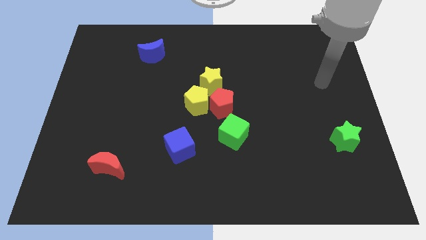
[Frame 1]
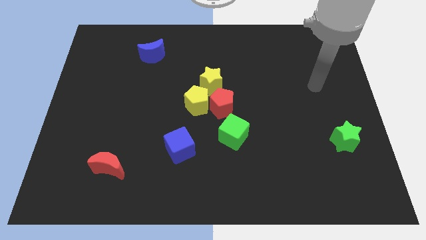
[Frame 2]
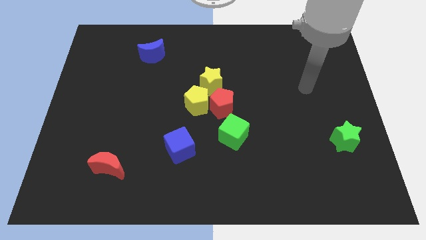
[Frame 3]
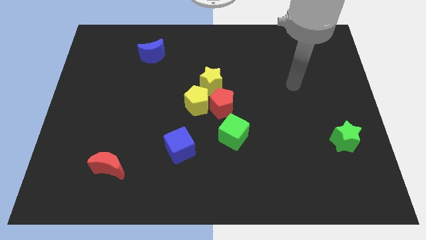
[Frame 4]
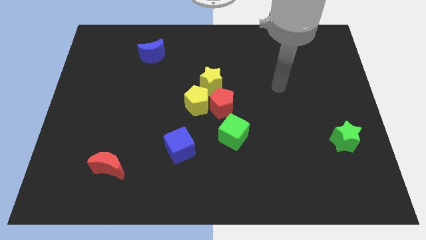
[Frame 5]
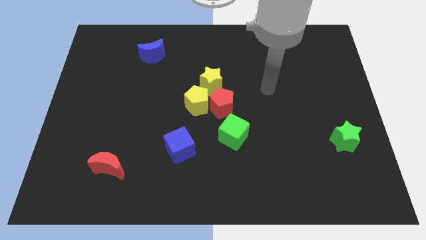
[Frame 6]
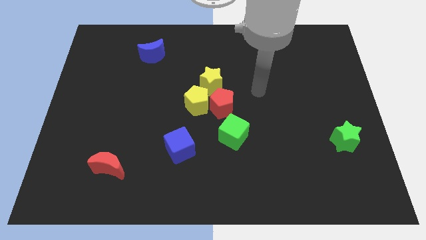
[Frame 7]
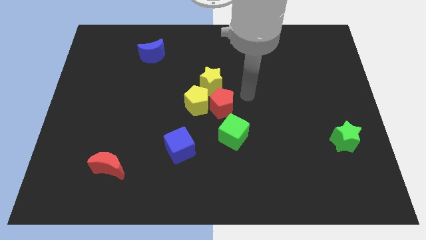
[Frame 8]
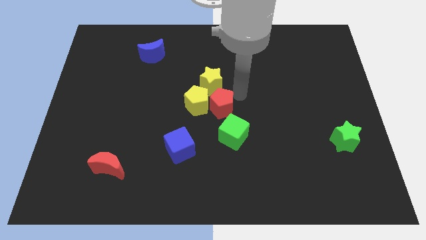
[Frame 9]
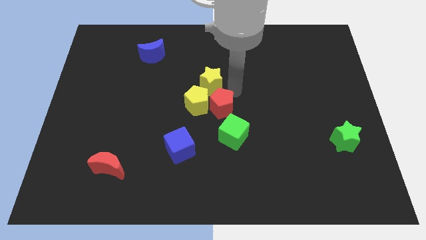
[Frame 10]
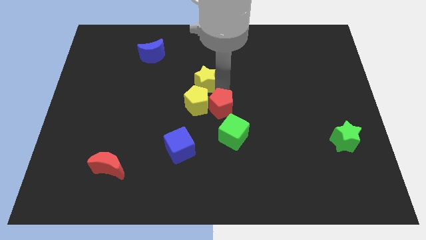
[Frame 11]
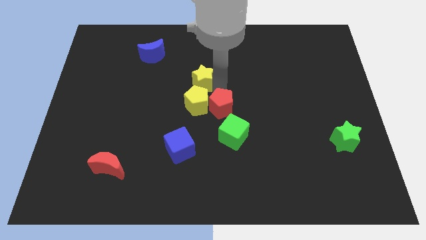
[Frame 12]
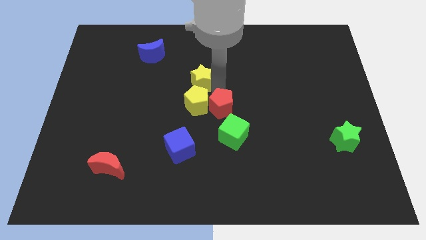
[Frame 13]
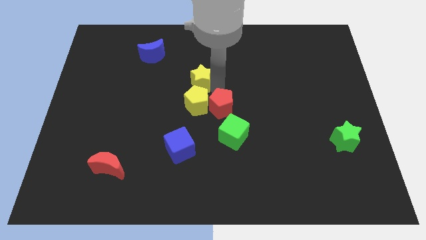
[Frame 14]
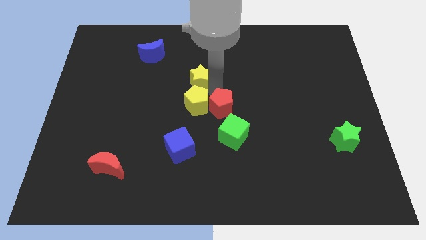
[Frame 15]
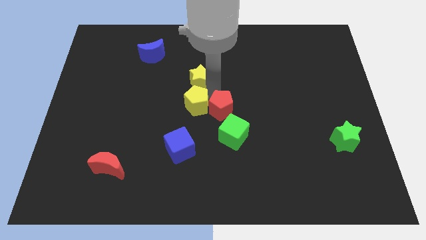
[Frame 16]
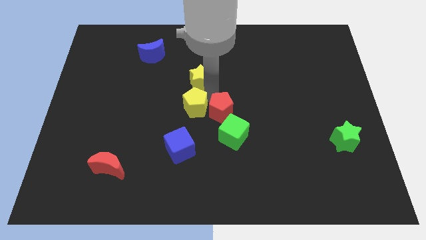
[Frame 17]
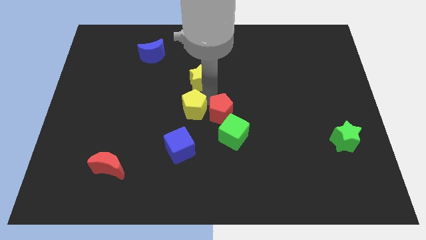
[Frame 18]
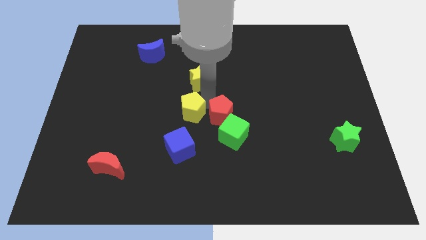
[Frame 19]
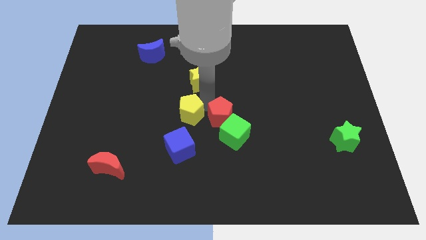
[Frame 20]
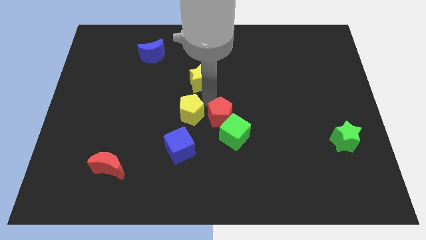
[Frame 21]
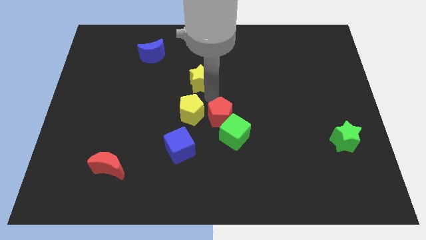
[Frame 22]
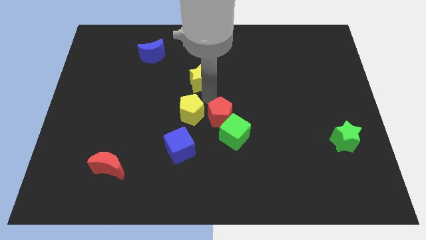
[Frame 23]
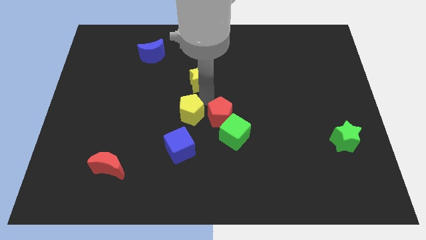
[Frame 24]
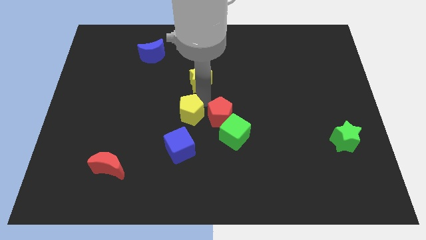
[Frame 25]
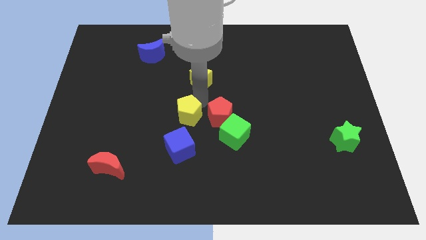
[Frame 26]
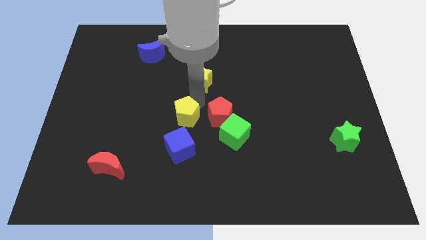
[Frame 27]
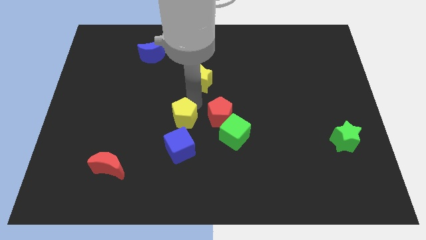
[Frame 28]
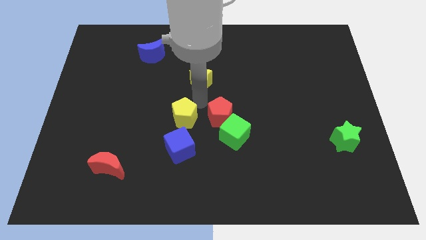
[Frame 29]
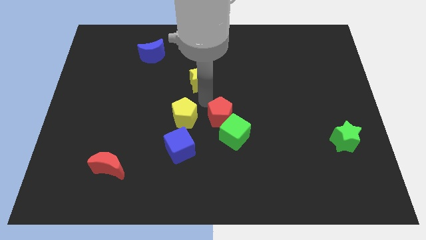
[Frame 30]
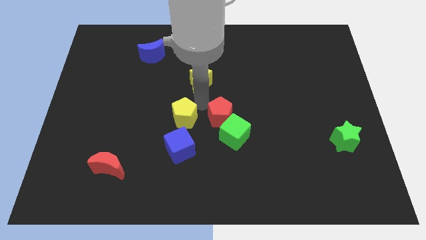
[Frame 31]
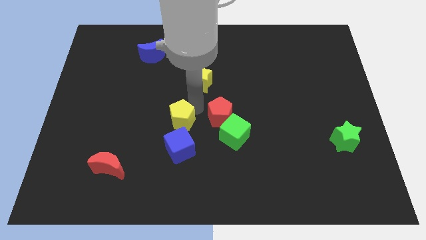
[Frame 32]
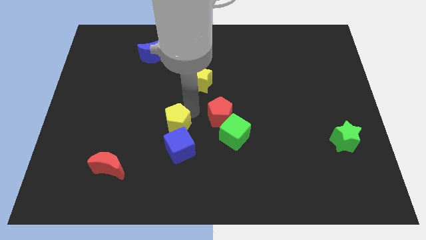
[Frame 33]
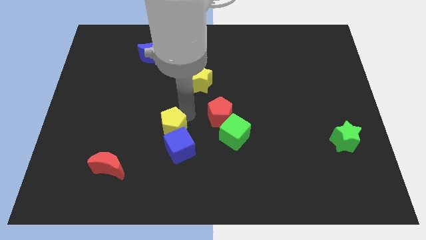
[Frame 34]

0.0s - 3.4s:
pull the yellow pentagon apart from the red pentagon and yellow star

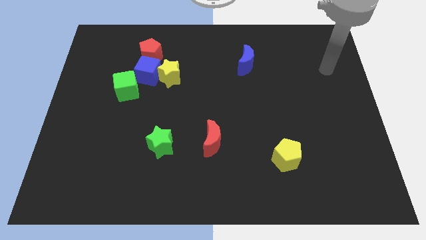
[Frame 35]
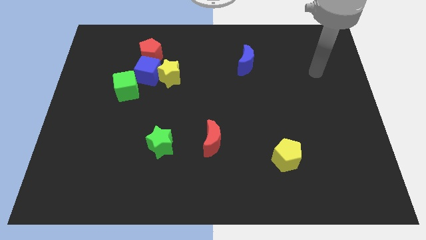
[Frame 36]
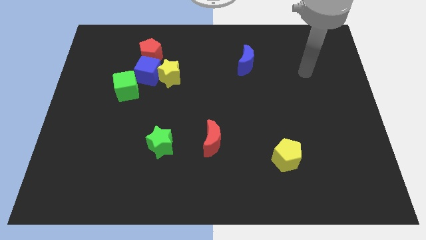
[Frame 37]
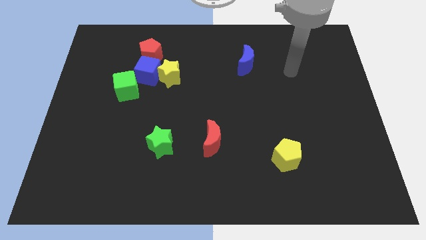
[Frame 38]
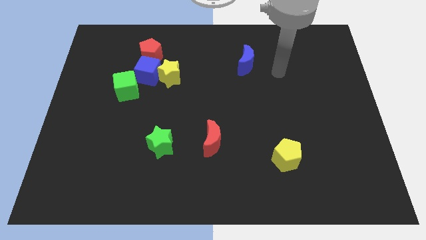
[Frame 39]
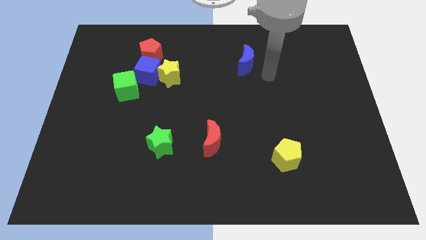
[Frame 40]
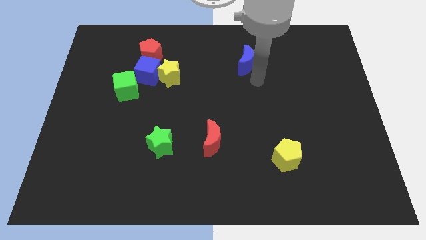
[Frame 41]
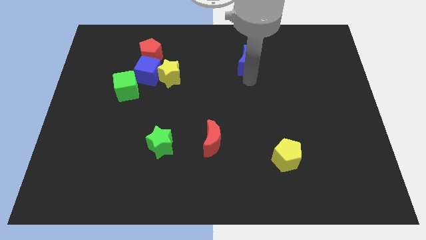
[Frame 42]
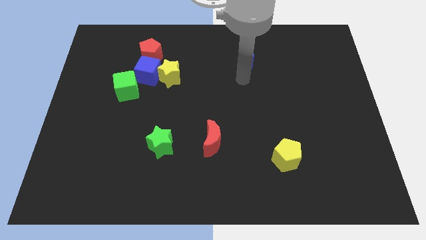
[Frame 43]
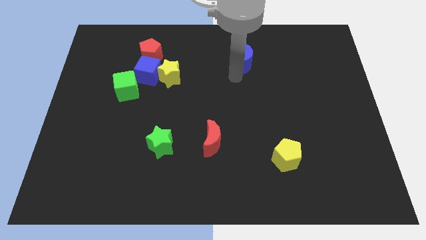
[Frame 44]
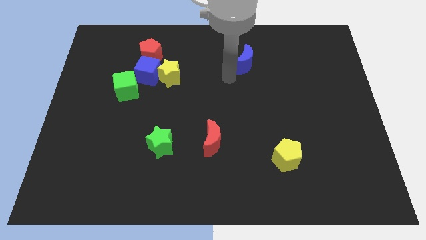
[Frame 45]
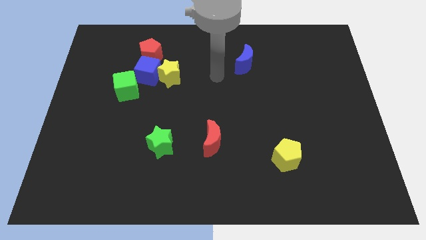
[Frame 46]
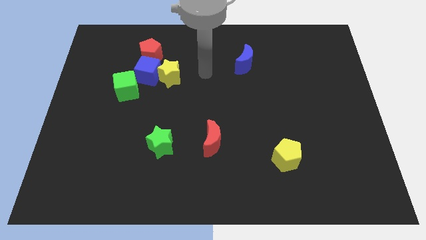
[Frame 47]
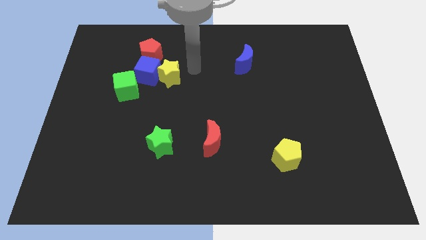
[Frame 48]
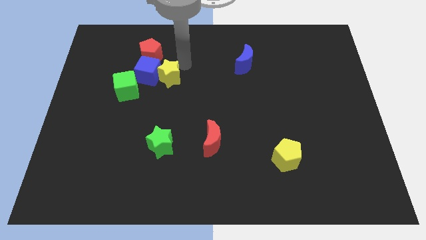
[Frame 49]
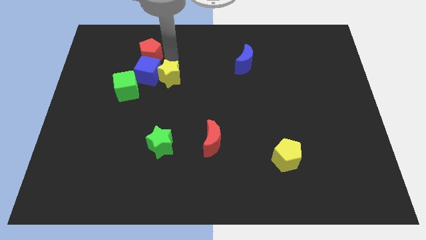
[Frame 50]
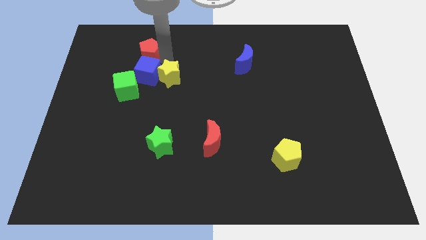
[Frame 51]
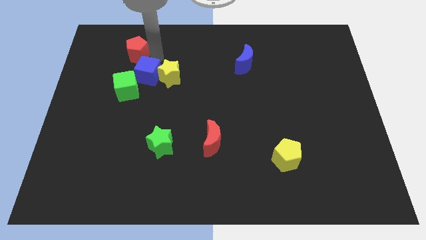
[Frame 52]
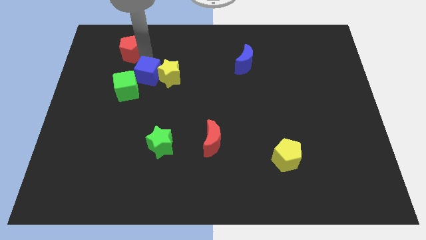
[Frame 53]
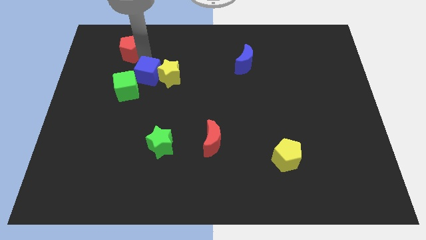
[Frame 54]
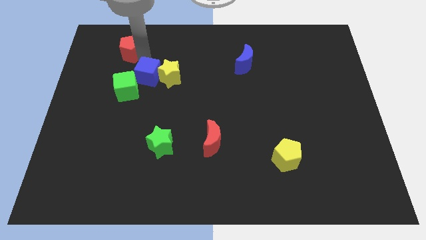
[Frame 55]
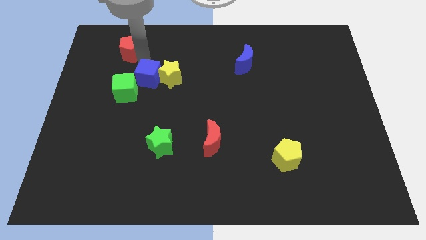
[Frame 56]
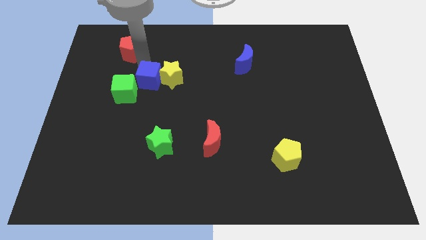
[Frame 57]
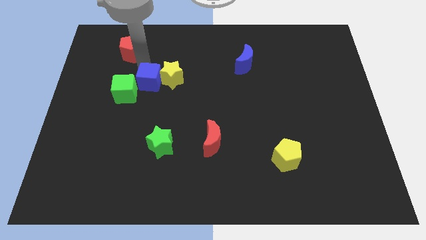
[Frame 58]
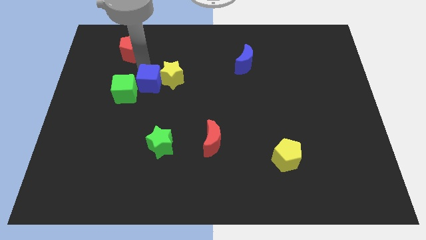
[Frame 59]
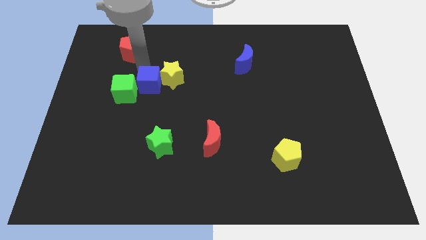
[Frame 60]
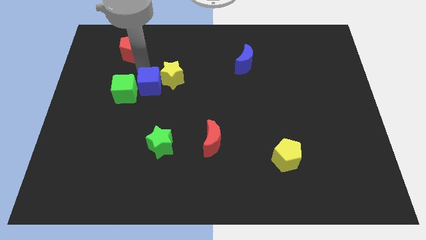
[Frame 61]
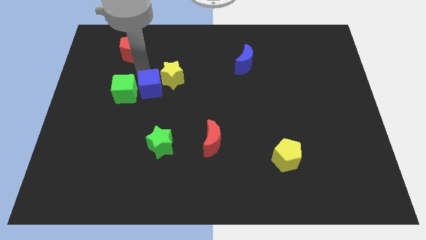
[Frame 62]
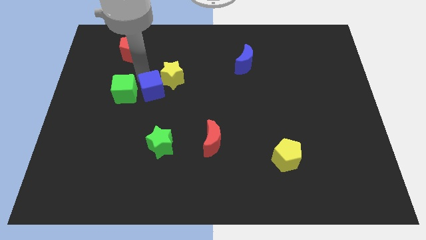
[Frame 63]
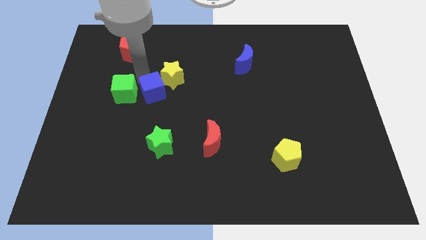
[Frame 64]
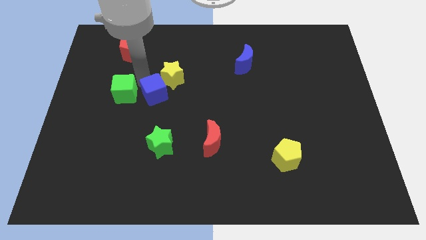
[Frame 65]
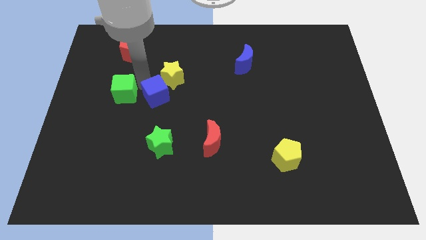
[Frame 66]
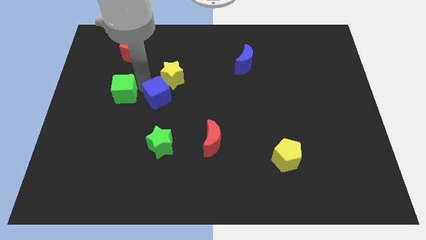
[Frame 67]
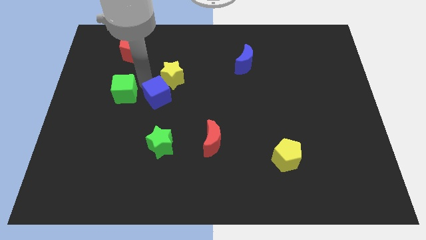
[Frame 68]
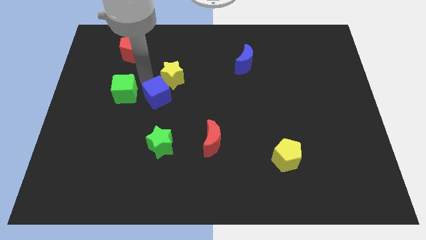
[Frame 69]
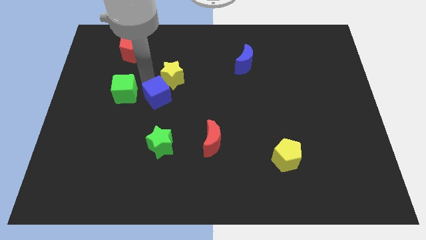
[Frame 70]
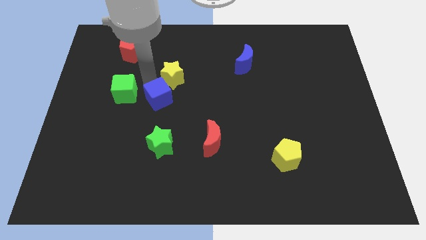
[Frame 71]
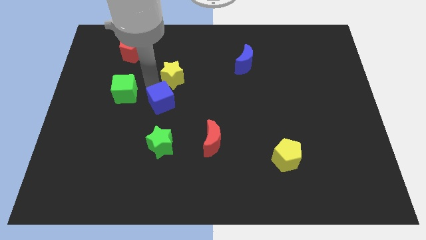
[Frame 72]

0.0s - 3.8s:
separate the blue cube from the yellow star, red pentagon, and green cube

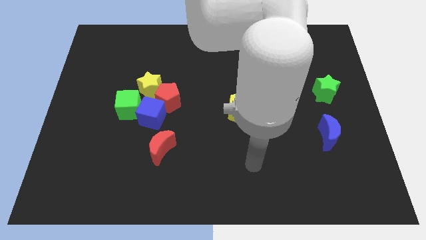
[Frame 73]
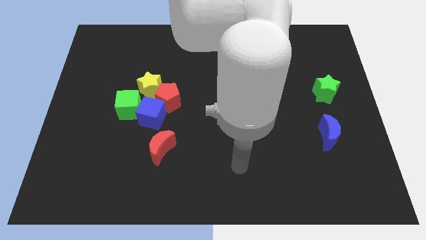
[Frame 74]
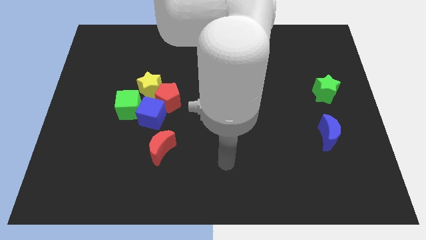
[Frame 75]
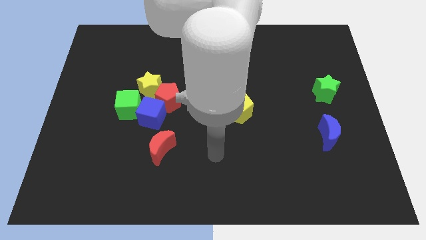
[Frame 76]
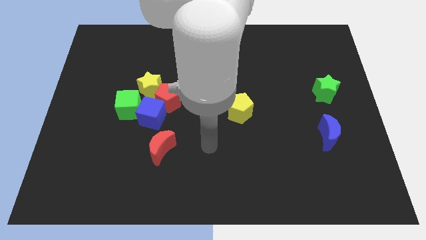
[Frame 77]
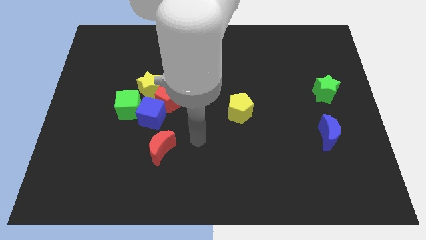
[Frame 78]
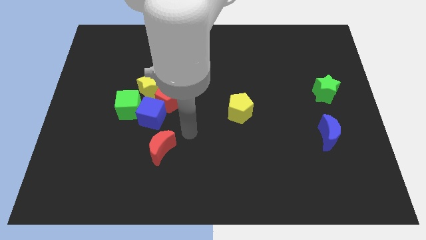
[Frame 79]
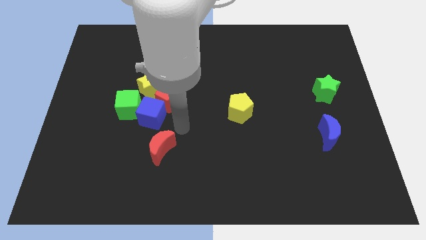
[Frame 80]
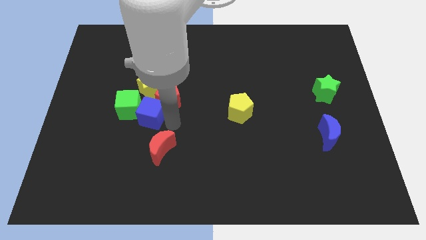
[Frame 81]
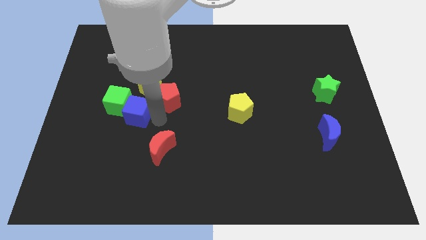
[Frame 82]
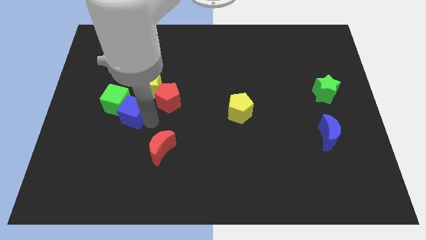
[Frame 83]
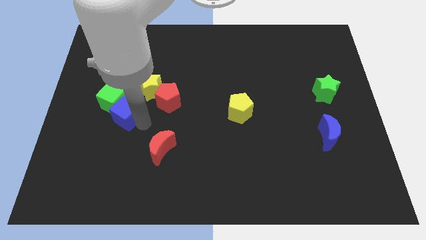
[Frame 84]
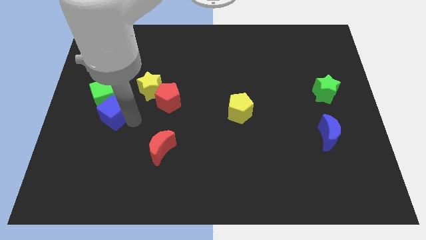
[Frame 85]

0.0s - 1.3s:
pull the red pentagon apart from the clump

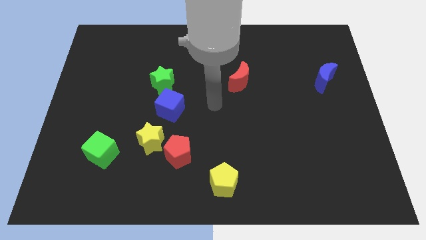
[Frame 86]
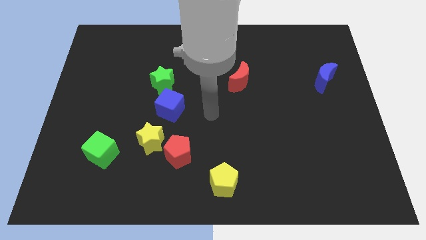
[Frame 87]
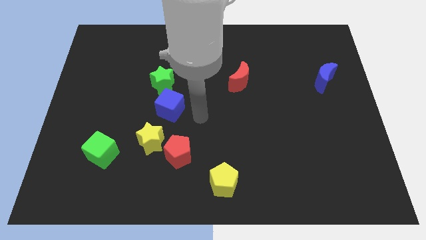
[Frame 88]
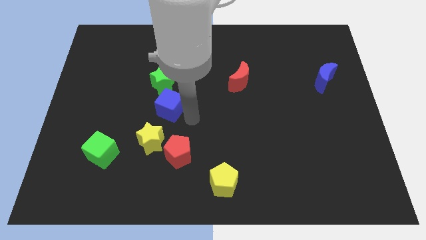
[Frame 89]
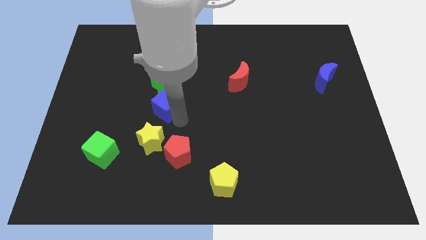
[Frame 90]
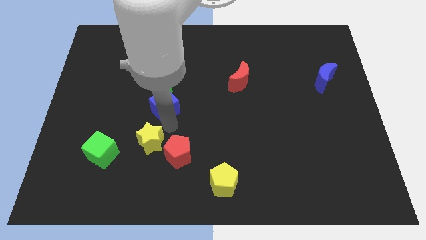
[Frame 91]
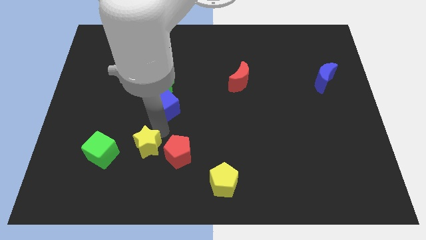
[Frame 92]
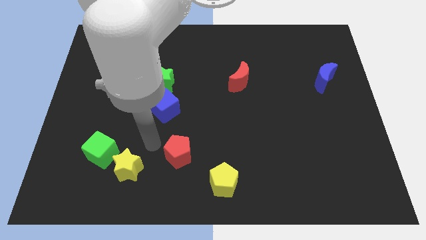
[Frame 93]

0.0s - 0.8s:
separate the red pentagon from the yellow star

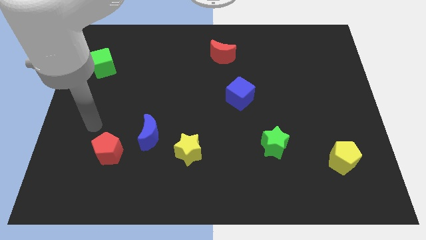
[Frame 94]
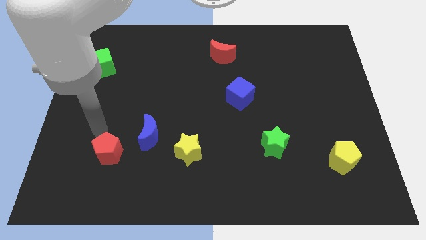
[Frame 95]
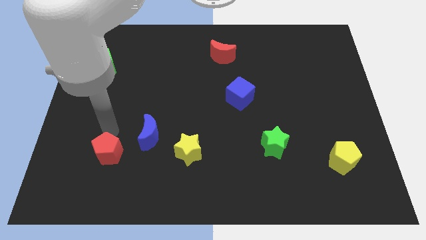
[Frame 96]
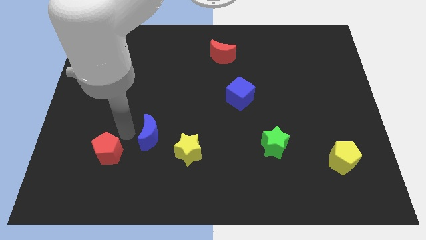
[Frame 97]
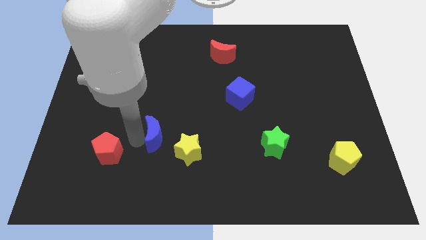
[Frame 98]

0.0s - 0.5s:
separate the red pentagon from the blue moon
